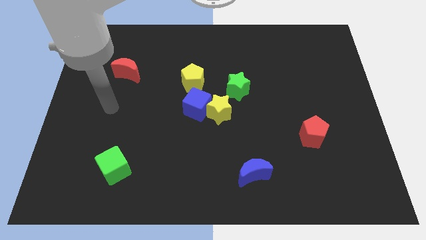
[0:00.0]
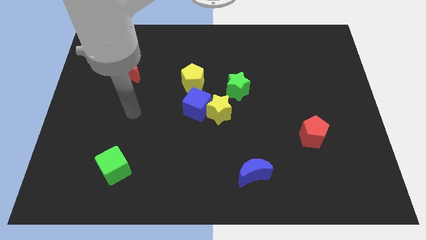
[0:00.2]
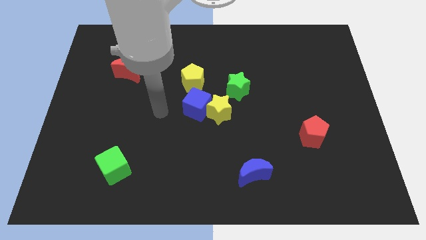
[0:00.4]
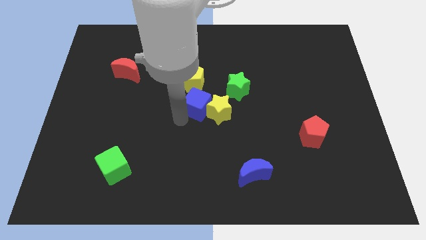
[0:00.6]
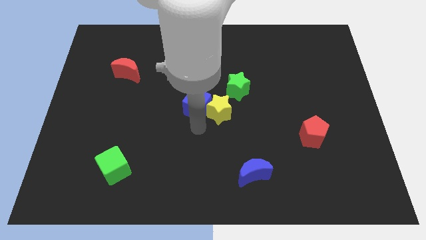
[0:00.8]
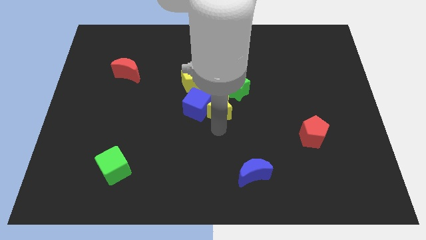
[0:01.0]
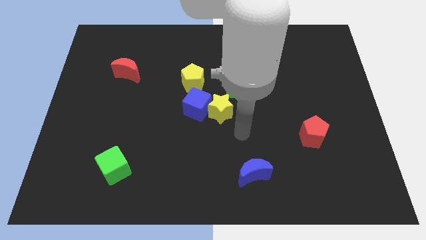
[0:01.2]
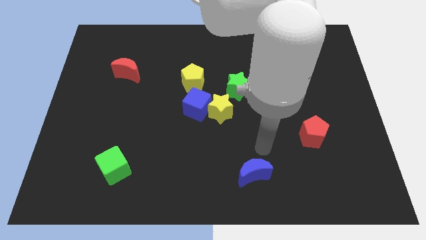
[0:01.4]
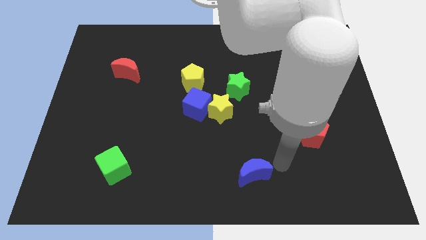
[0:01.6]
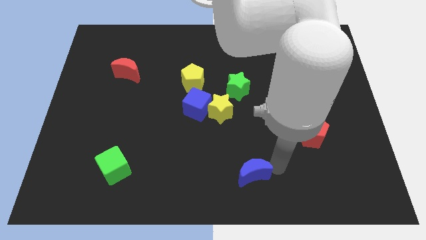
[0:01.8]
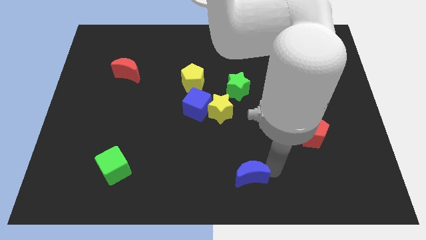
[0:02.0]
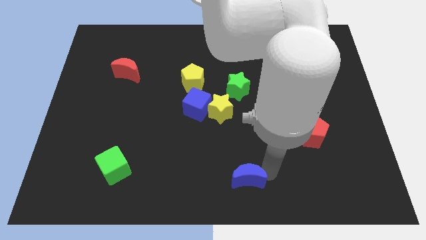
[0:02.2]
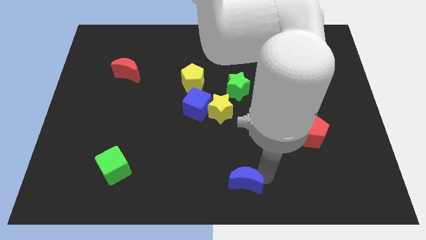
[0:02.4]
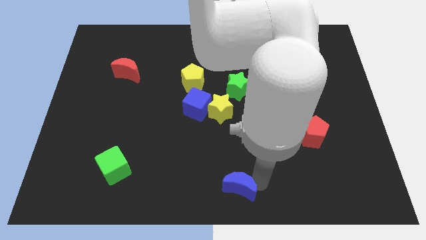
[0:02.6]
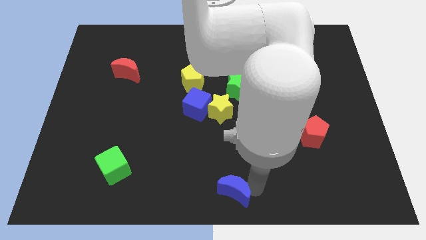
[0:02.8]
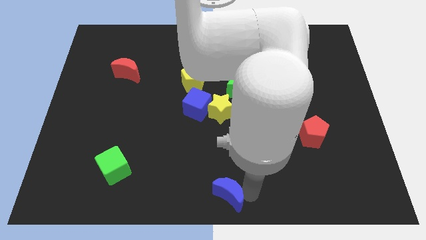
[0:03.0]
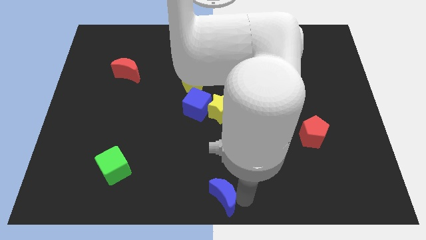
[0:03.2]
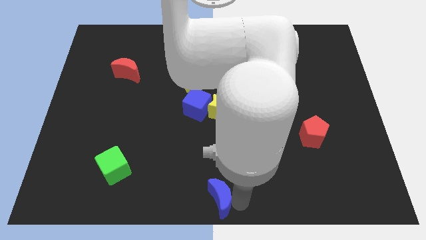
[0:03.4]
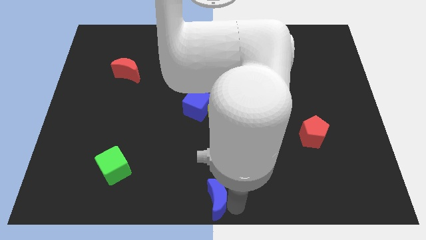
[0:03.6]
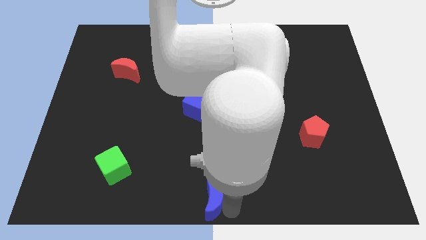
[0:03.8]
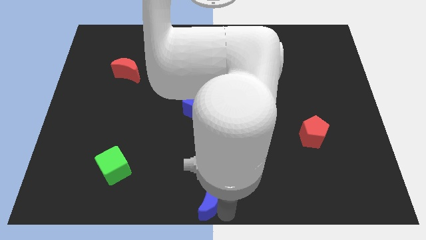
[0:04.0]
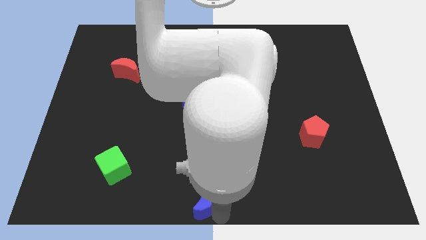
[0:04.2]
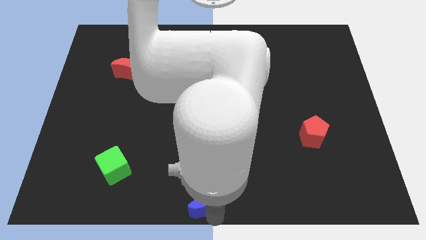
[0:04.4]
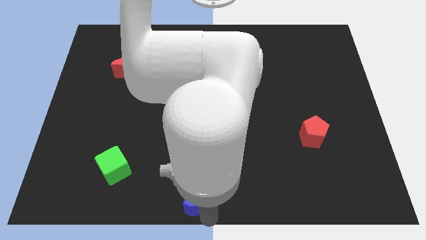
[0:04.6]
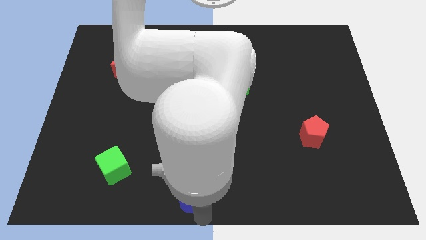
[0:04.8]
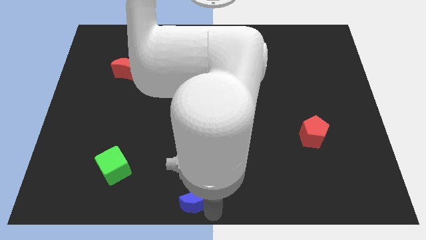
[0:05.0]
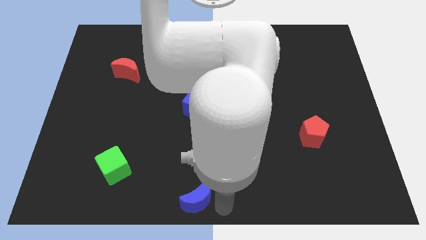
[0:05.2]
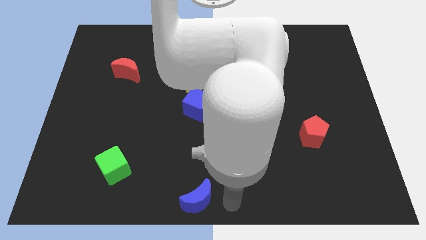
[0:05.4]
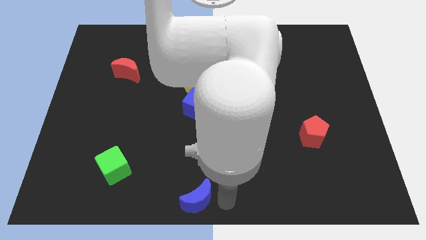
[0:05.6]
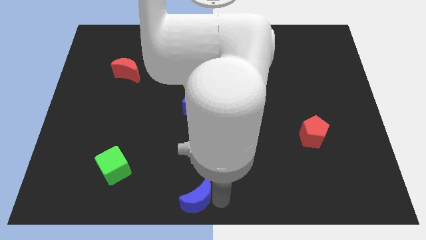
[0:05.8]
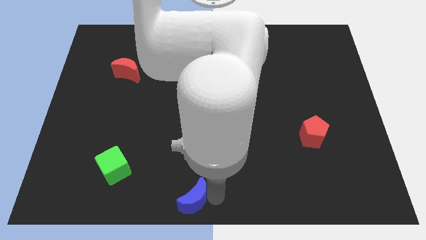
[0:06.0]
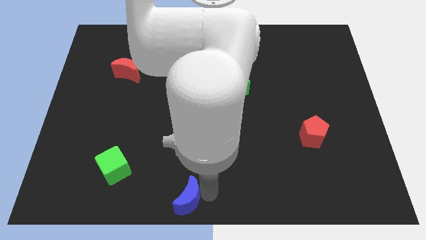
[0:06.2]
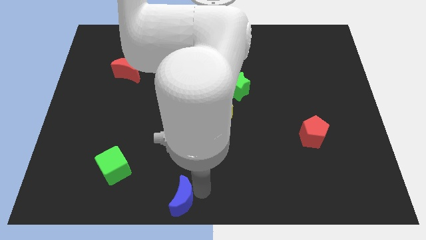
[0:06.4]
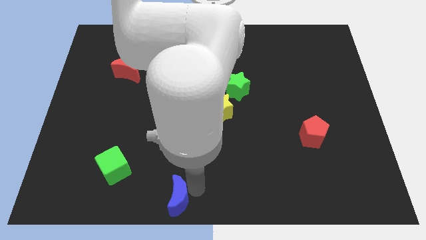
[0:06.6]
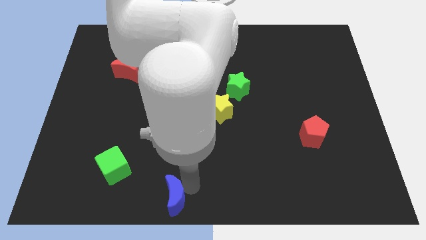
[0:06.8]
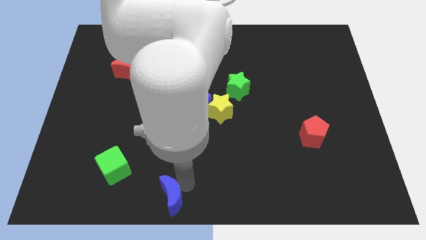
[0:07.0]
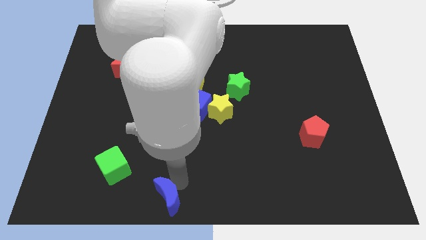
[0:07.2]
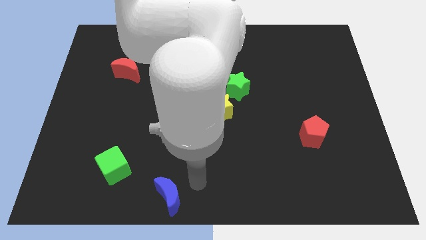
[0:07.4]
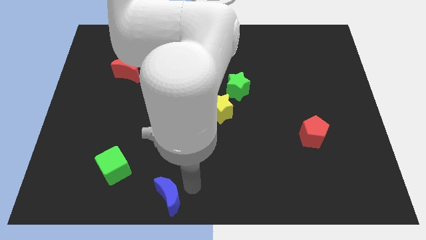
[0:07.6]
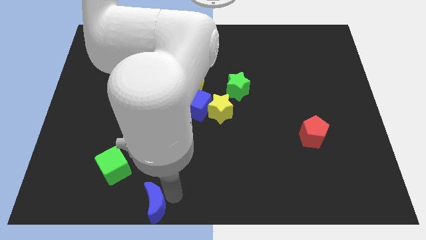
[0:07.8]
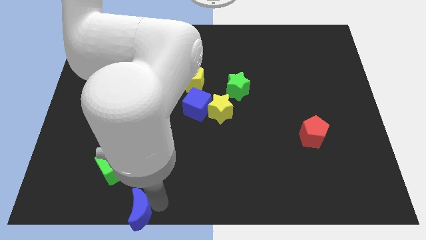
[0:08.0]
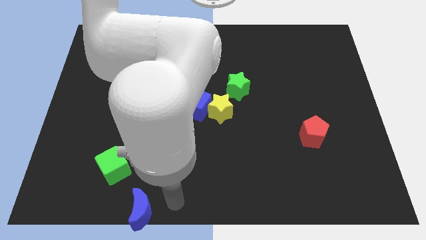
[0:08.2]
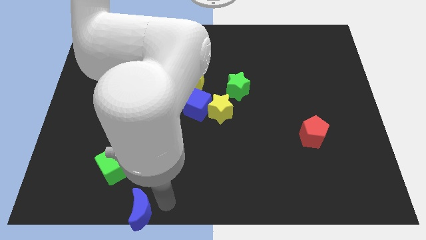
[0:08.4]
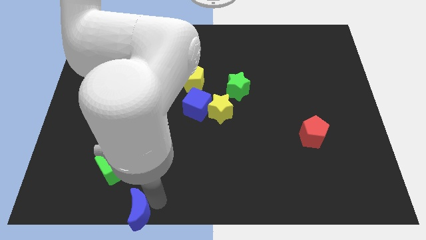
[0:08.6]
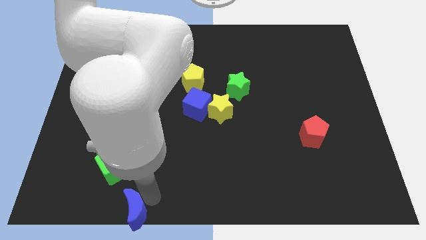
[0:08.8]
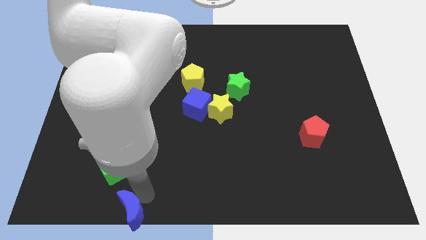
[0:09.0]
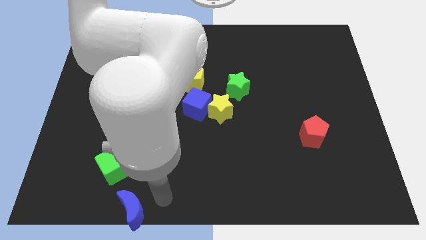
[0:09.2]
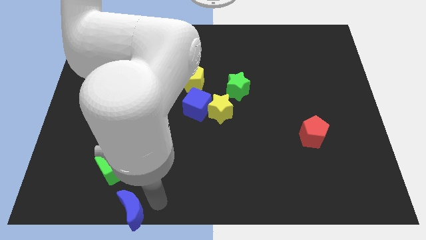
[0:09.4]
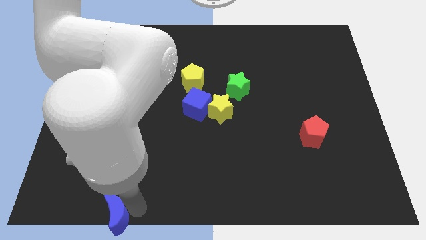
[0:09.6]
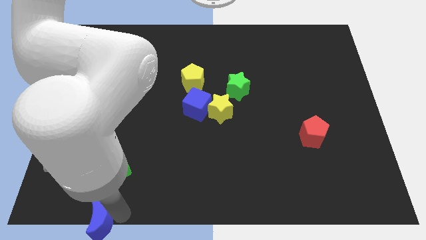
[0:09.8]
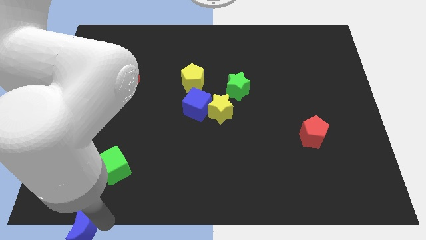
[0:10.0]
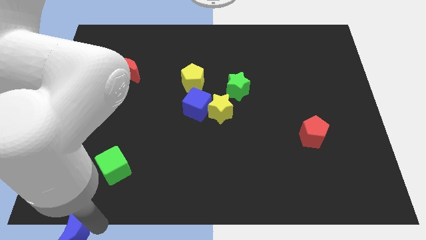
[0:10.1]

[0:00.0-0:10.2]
push the blue moon to the lower left corner

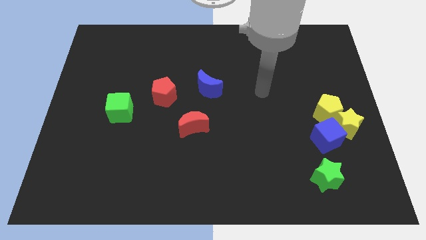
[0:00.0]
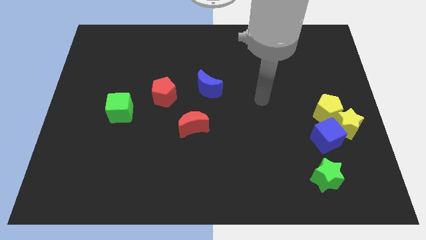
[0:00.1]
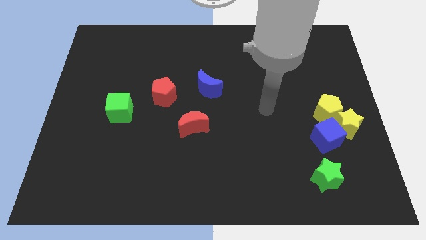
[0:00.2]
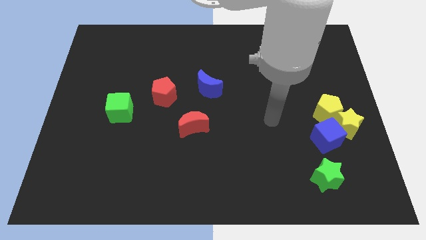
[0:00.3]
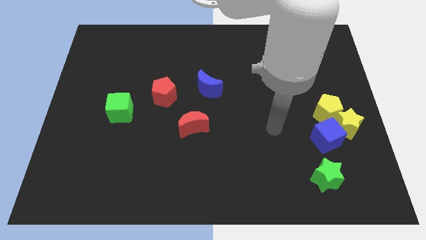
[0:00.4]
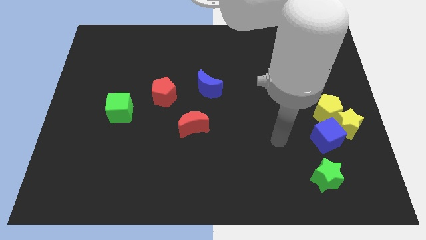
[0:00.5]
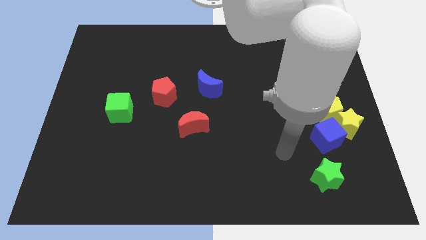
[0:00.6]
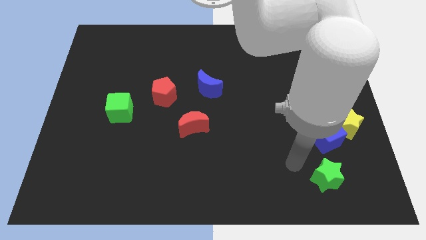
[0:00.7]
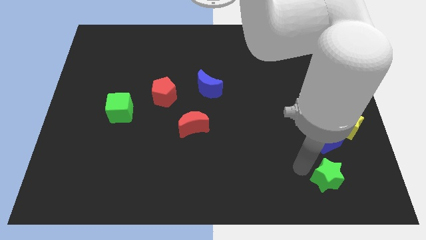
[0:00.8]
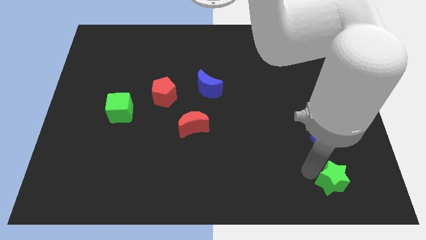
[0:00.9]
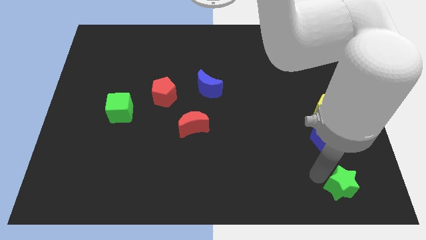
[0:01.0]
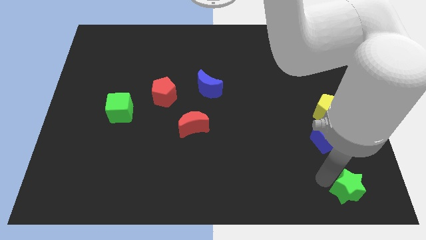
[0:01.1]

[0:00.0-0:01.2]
put the green star to the bottom right of the board
